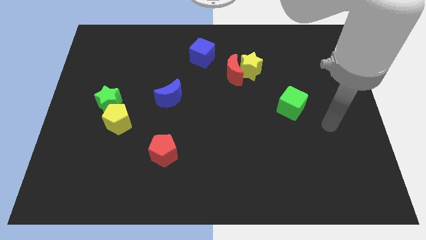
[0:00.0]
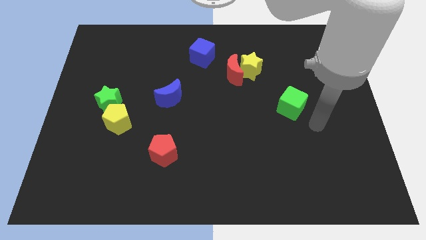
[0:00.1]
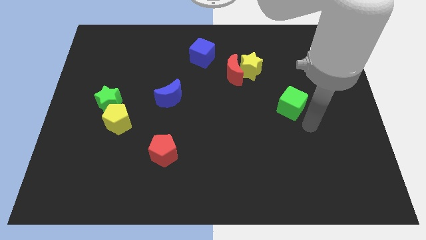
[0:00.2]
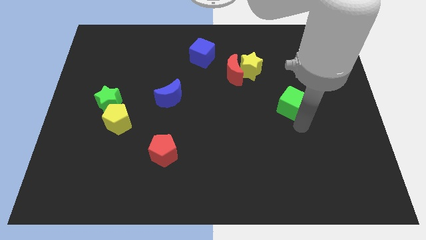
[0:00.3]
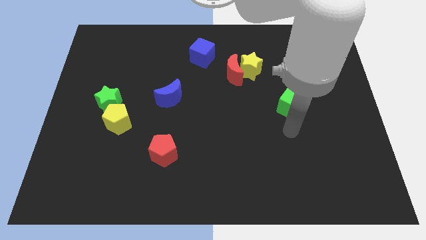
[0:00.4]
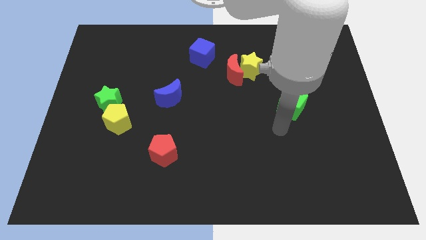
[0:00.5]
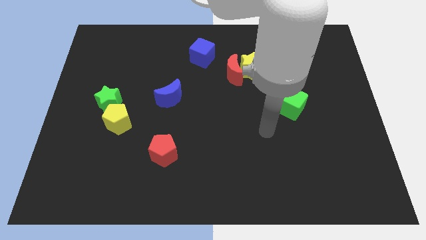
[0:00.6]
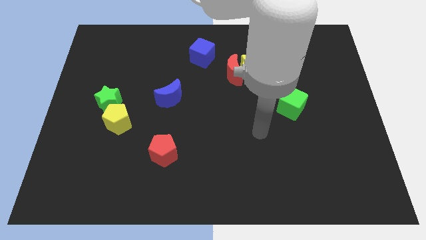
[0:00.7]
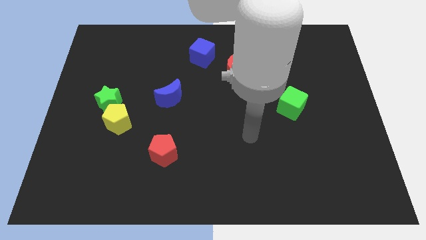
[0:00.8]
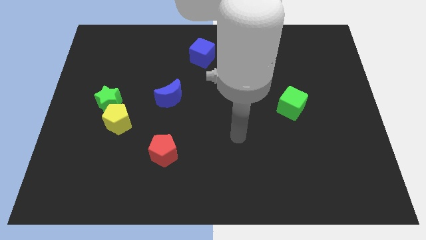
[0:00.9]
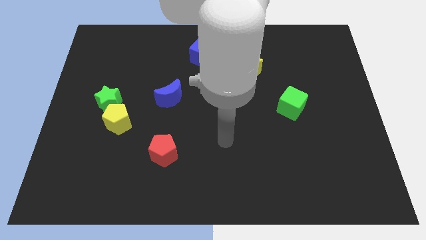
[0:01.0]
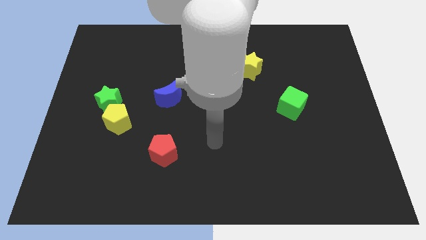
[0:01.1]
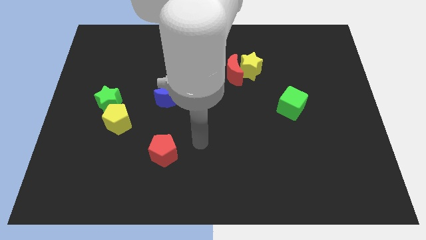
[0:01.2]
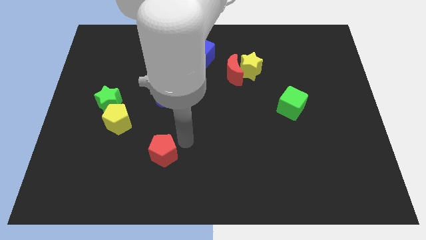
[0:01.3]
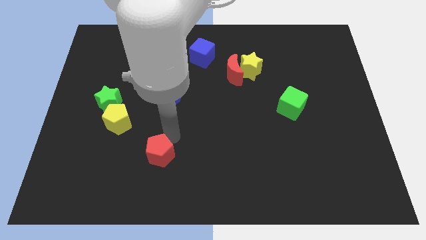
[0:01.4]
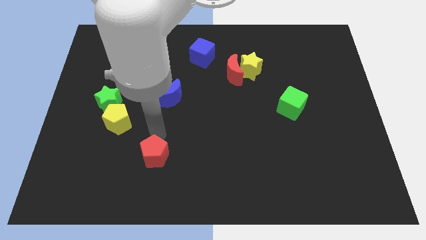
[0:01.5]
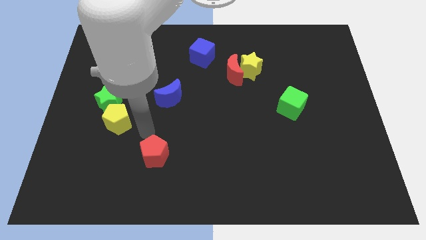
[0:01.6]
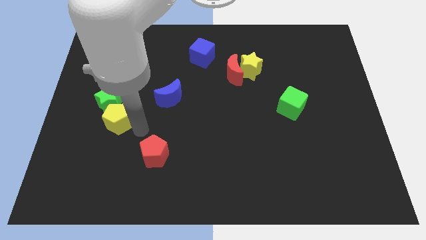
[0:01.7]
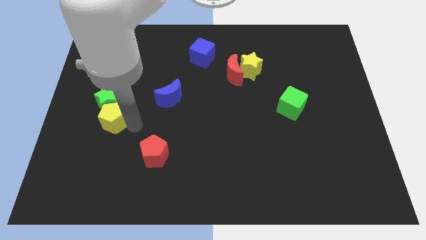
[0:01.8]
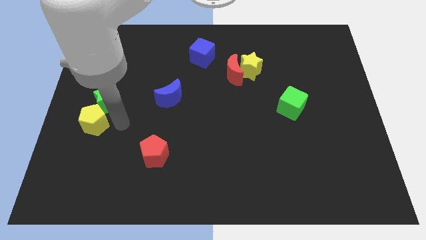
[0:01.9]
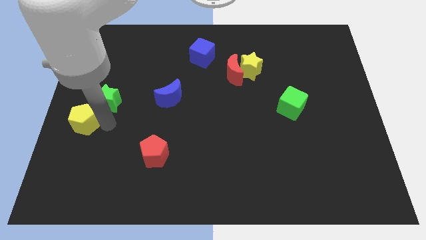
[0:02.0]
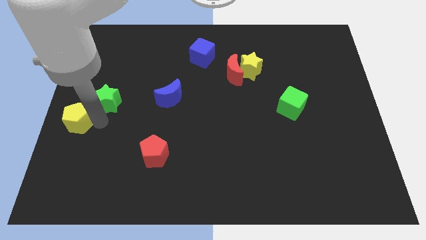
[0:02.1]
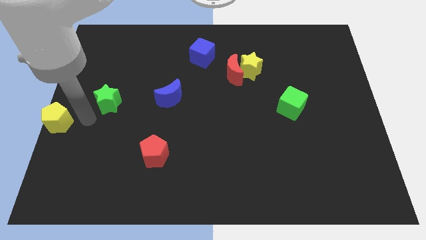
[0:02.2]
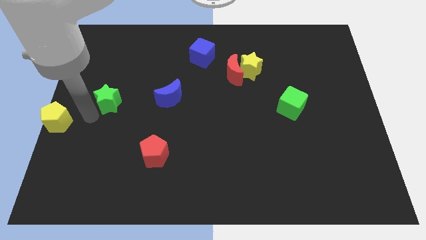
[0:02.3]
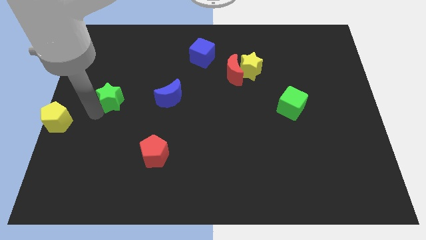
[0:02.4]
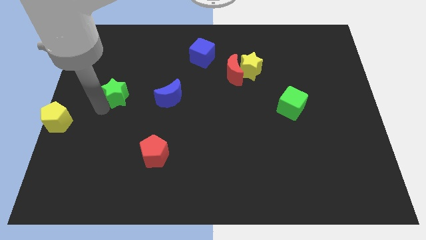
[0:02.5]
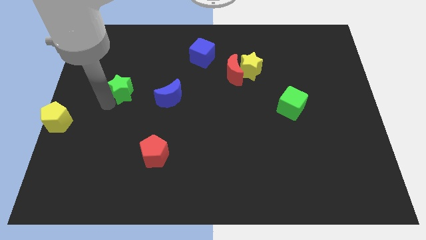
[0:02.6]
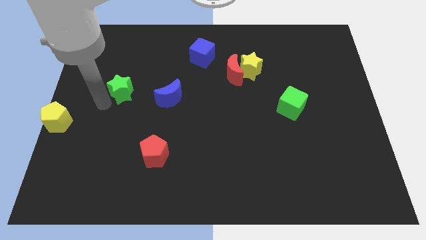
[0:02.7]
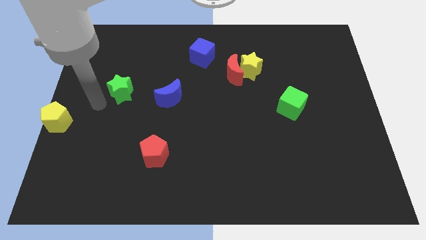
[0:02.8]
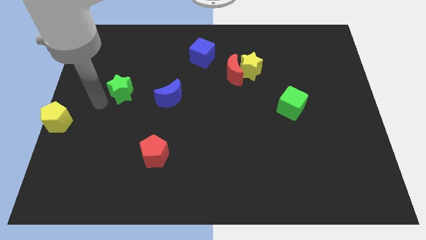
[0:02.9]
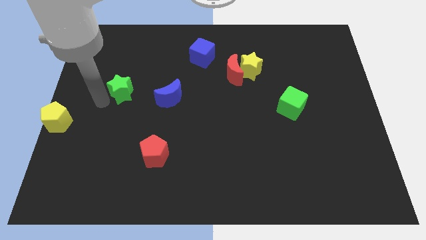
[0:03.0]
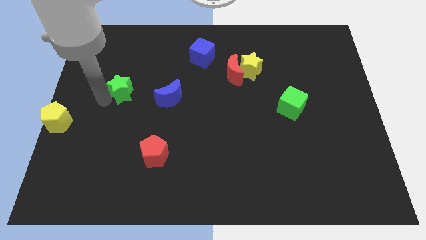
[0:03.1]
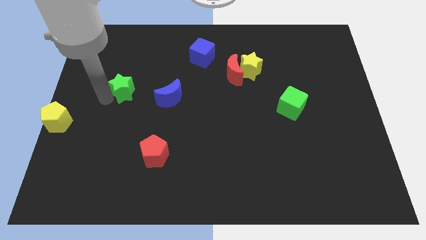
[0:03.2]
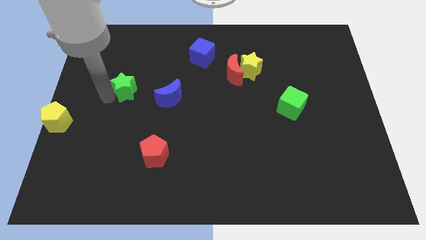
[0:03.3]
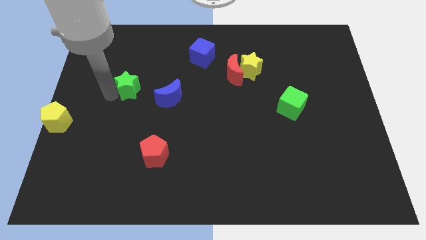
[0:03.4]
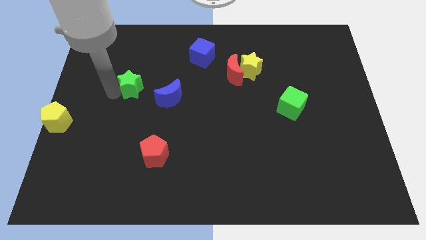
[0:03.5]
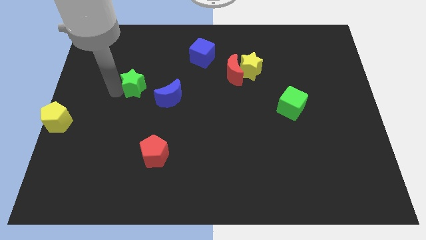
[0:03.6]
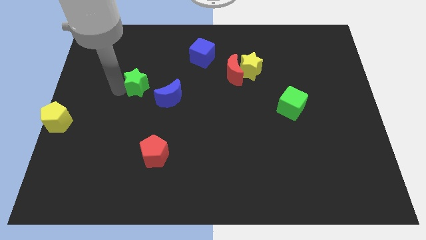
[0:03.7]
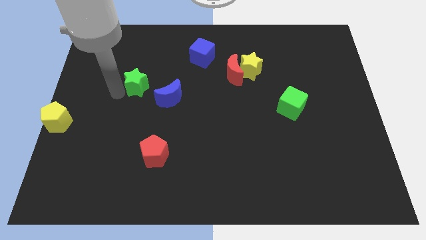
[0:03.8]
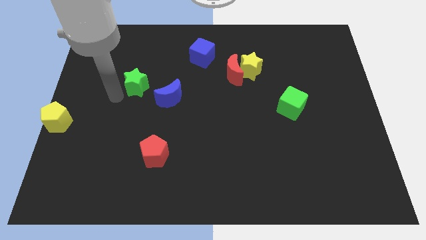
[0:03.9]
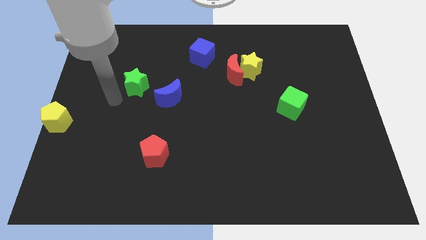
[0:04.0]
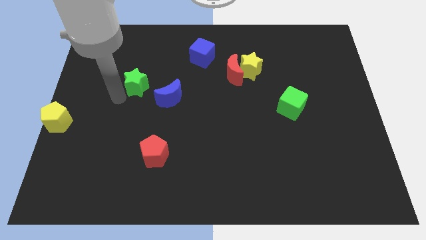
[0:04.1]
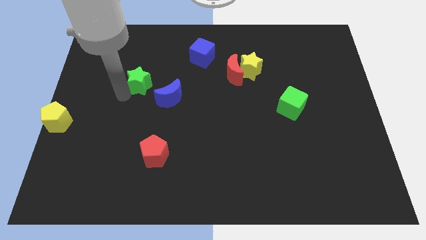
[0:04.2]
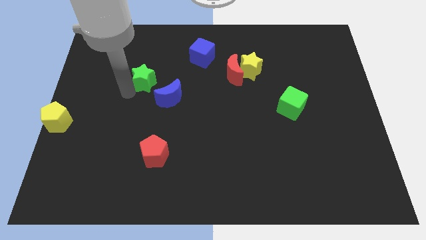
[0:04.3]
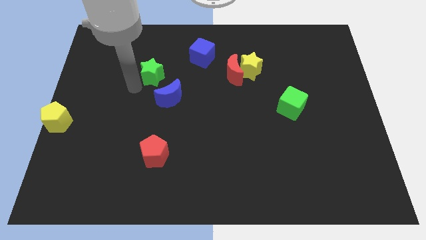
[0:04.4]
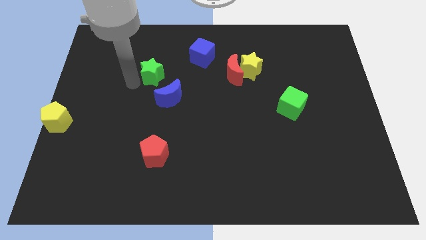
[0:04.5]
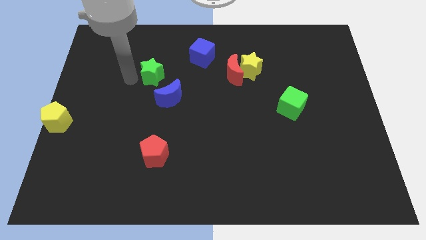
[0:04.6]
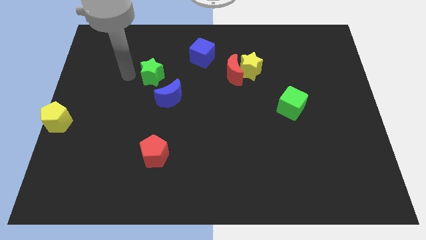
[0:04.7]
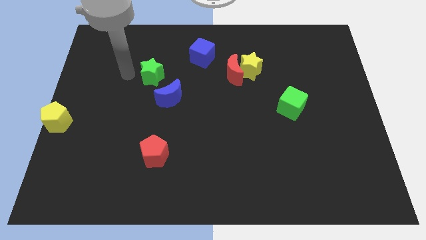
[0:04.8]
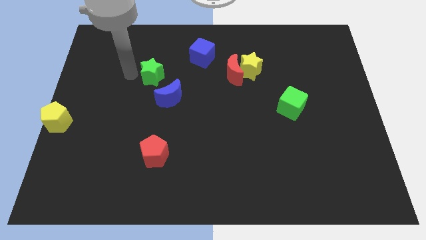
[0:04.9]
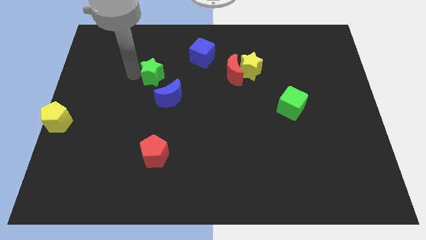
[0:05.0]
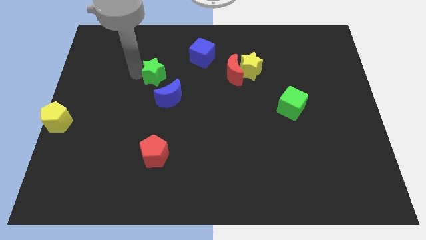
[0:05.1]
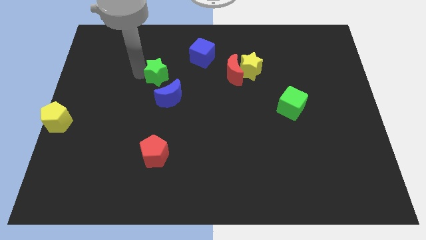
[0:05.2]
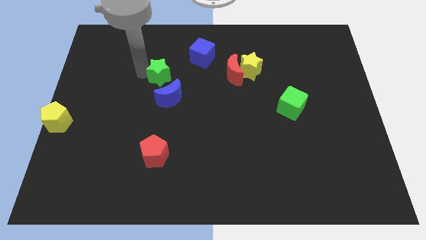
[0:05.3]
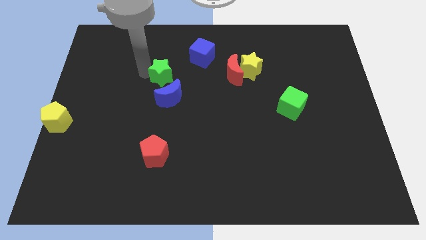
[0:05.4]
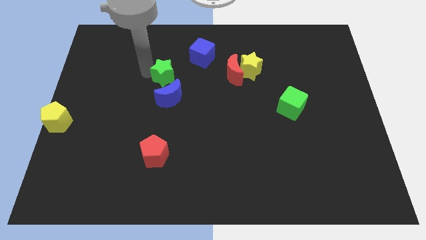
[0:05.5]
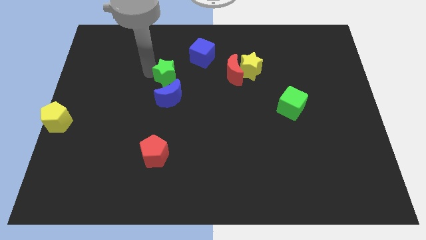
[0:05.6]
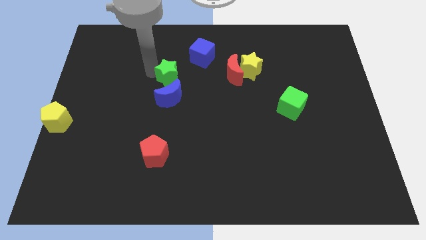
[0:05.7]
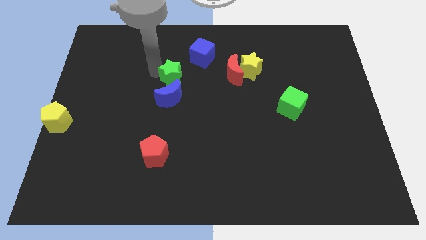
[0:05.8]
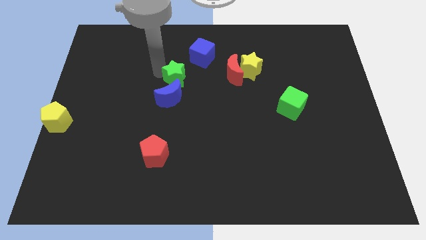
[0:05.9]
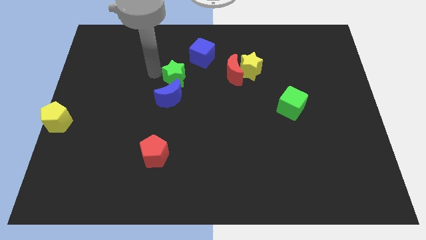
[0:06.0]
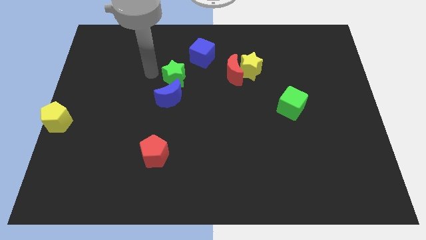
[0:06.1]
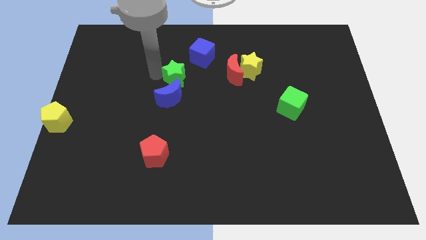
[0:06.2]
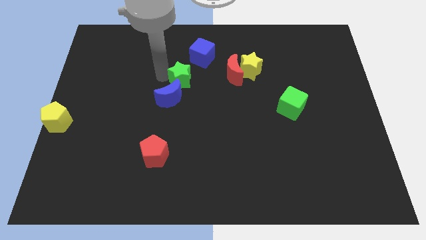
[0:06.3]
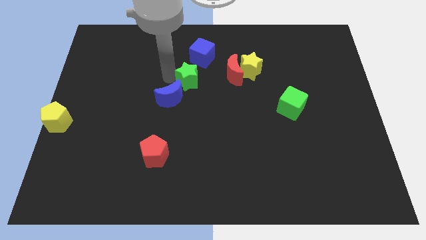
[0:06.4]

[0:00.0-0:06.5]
put the green star to the bottom of the blue cube
